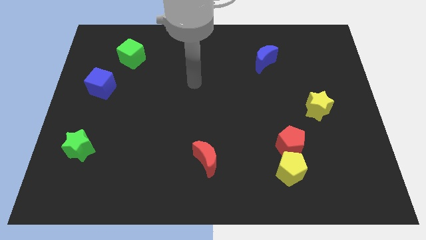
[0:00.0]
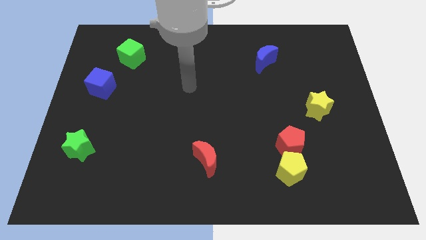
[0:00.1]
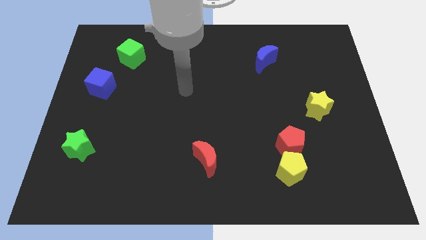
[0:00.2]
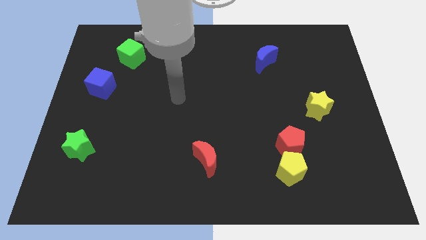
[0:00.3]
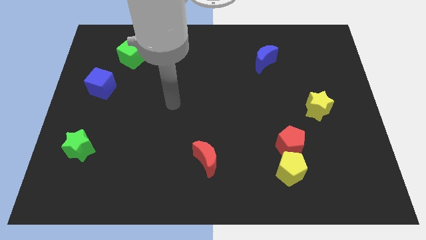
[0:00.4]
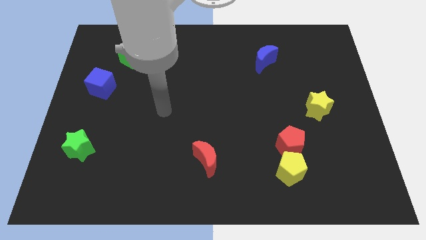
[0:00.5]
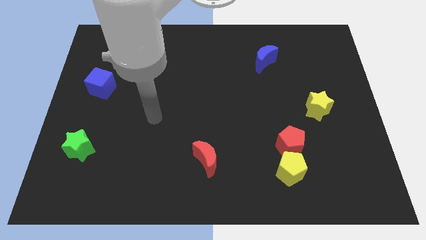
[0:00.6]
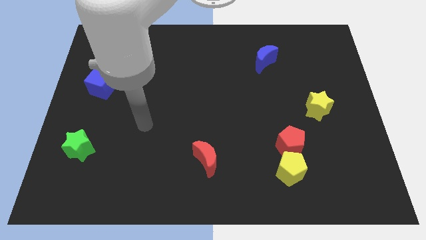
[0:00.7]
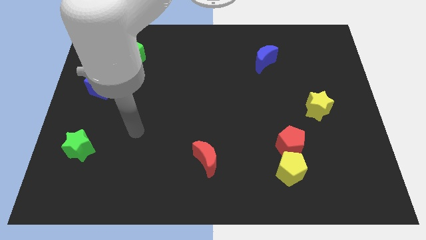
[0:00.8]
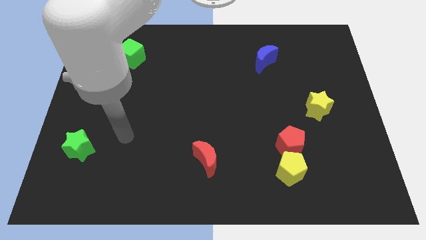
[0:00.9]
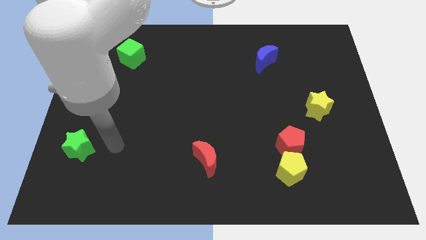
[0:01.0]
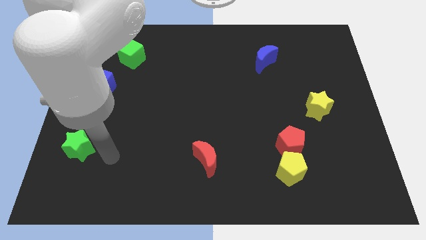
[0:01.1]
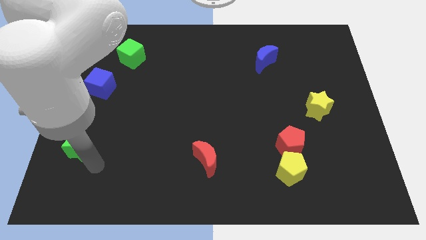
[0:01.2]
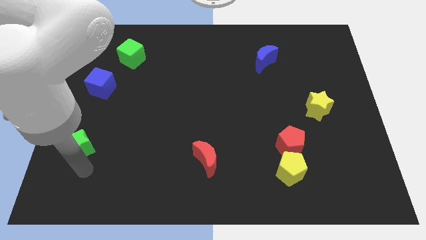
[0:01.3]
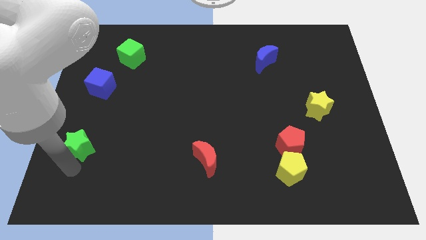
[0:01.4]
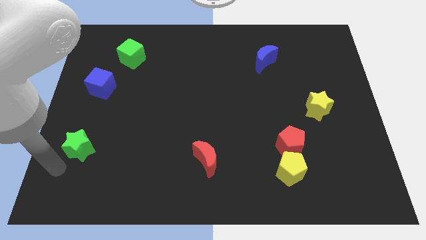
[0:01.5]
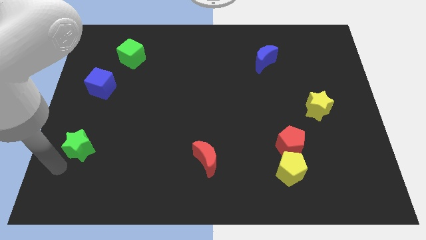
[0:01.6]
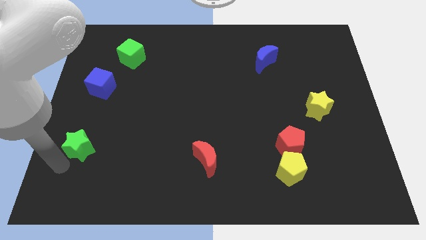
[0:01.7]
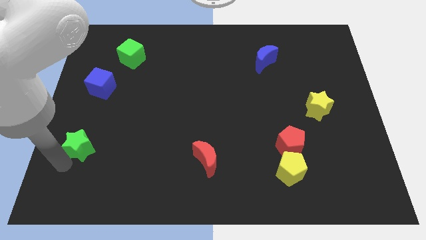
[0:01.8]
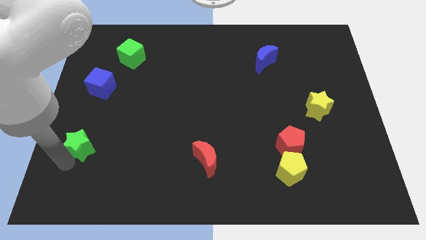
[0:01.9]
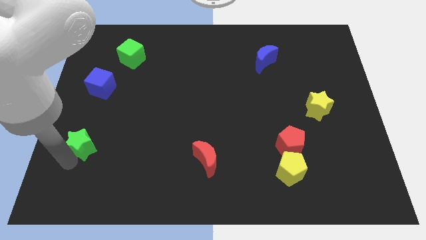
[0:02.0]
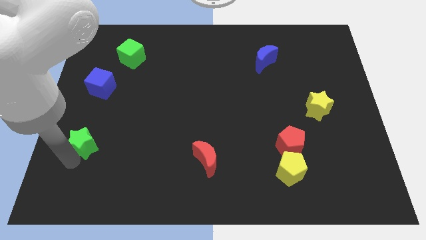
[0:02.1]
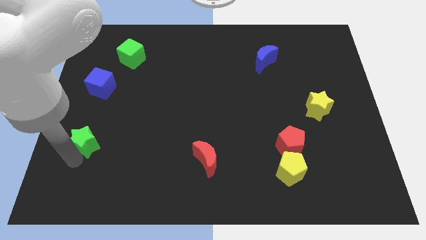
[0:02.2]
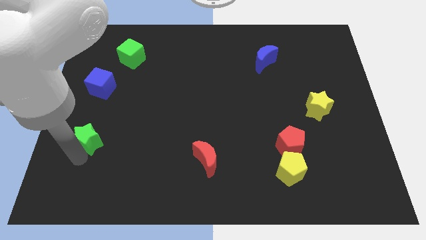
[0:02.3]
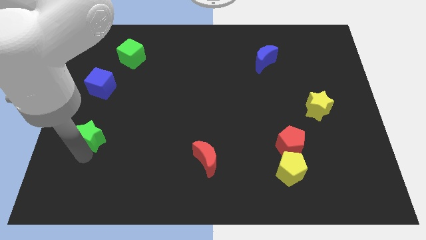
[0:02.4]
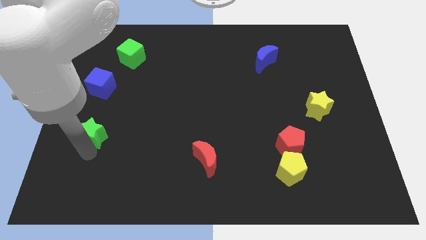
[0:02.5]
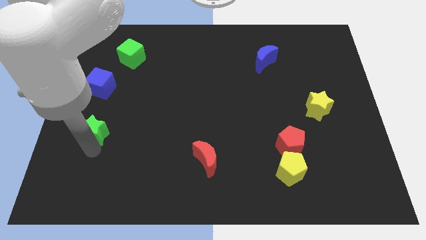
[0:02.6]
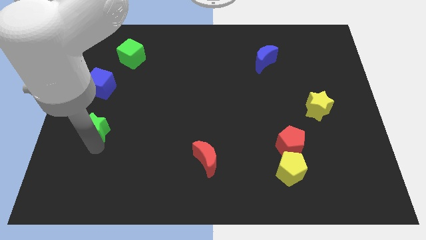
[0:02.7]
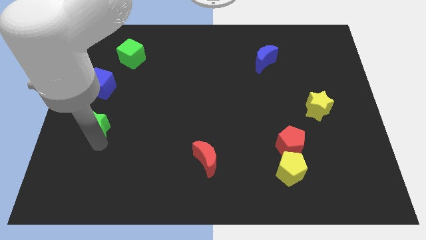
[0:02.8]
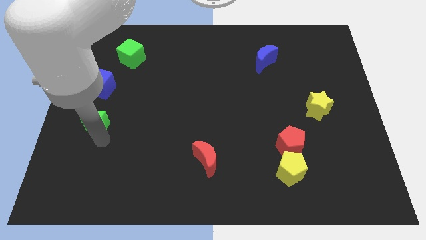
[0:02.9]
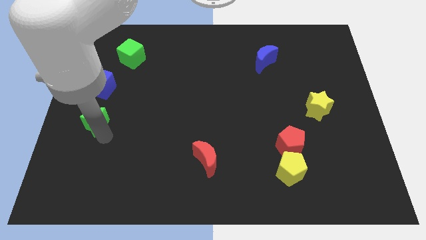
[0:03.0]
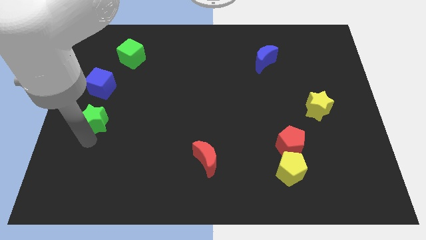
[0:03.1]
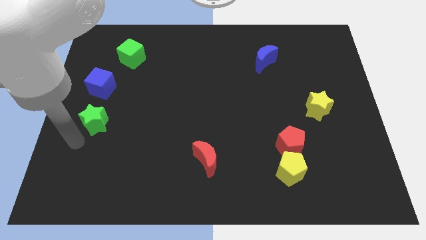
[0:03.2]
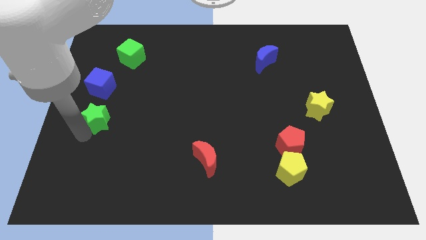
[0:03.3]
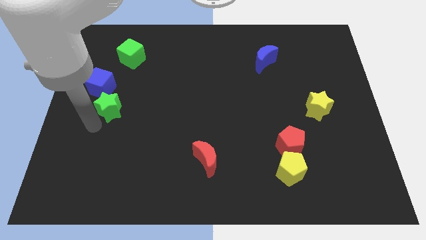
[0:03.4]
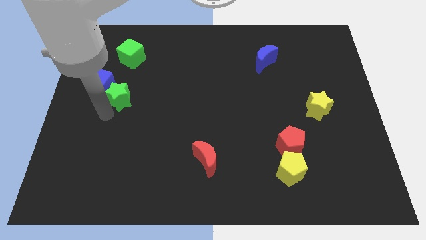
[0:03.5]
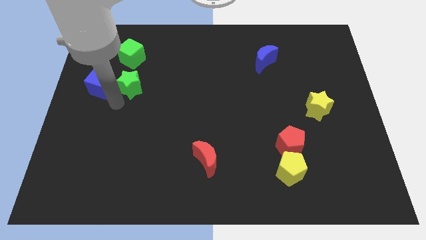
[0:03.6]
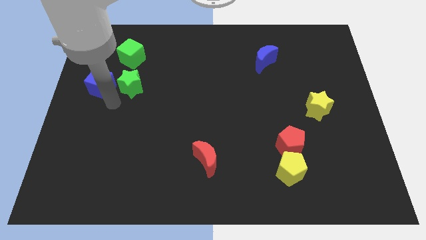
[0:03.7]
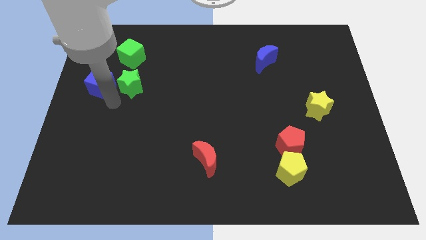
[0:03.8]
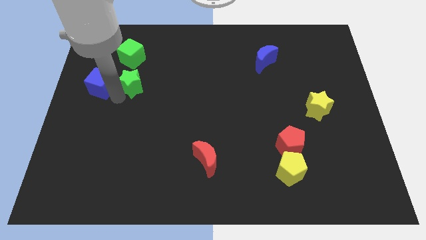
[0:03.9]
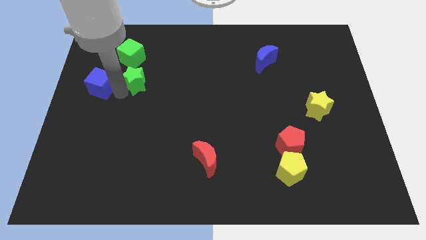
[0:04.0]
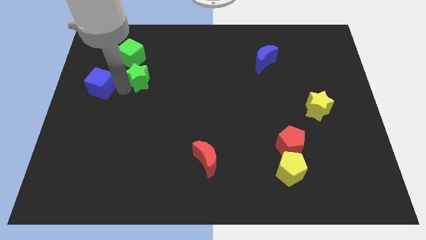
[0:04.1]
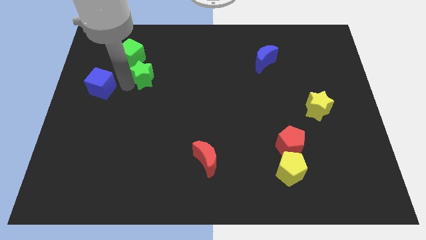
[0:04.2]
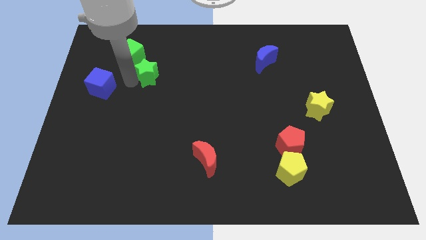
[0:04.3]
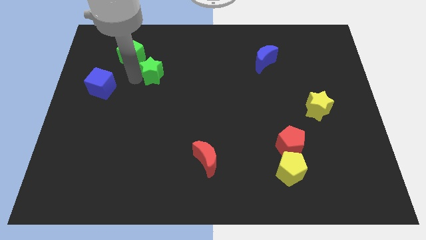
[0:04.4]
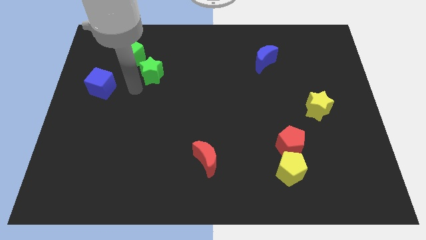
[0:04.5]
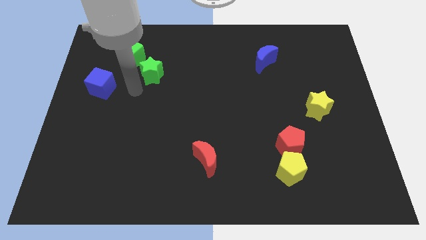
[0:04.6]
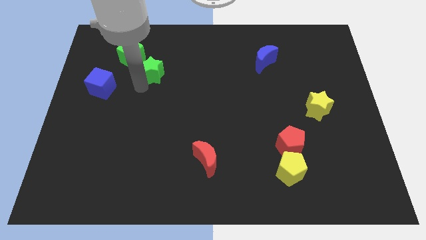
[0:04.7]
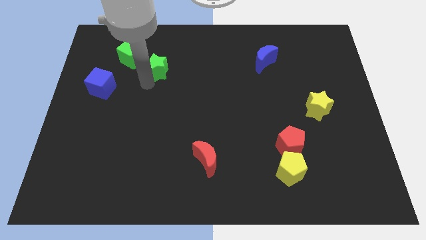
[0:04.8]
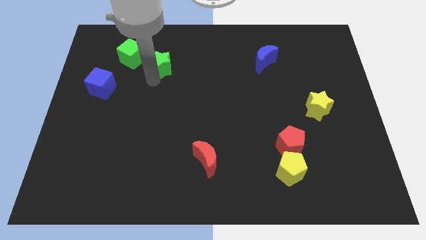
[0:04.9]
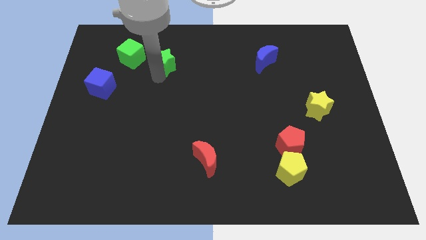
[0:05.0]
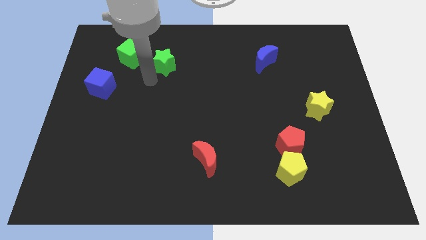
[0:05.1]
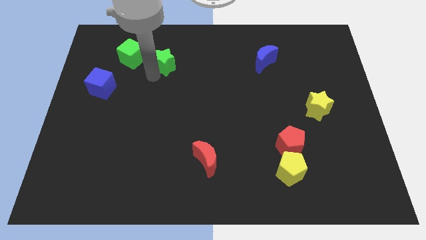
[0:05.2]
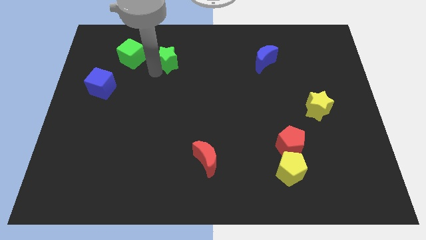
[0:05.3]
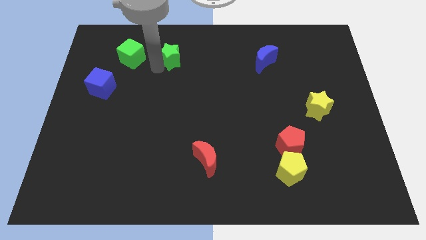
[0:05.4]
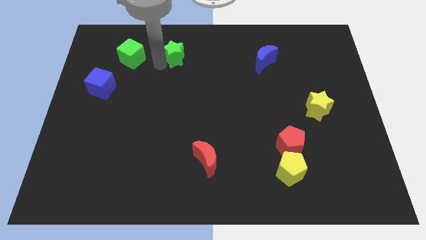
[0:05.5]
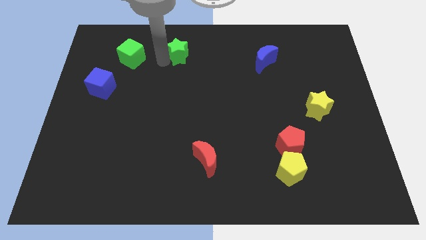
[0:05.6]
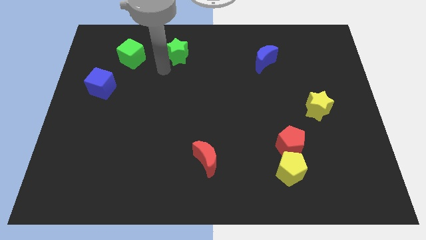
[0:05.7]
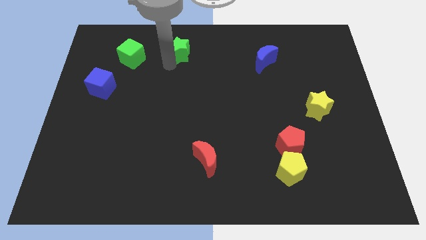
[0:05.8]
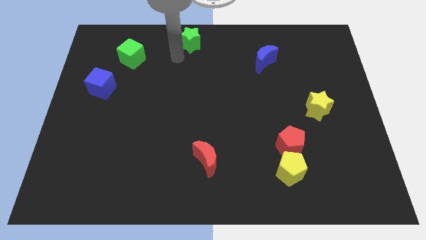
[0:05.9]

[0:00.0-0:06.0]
move the green star to the top side

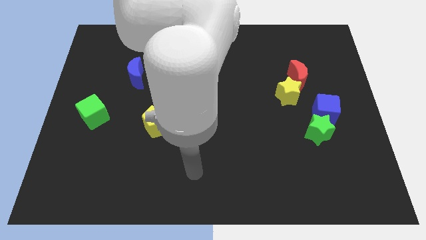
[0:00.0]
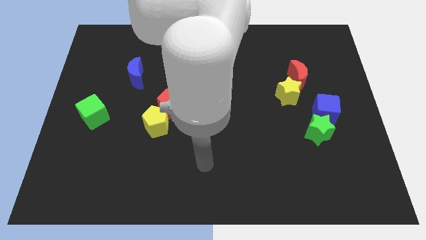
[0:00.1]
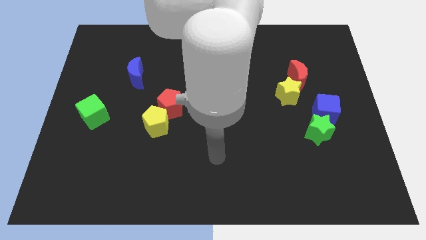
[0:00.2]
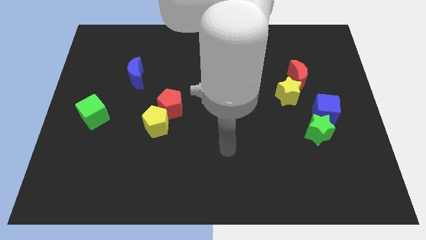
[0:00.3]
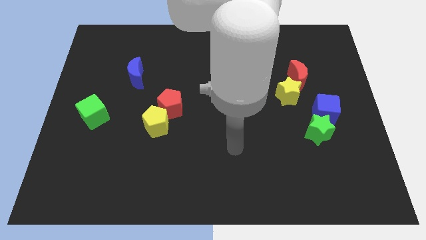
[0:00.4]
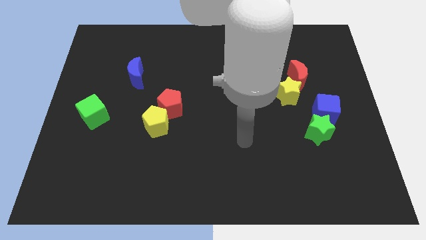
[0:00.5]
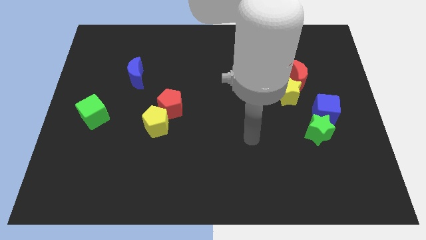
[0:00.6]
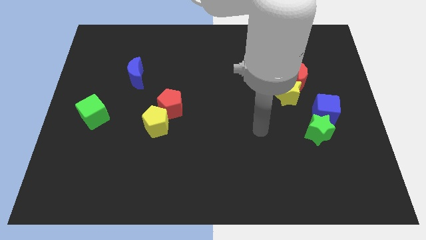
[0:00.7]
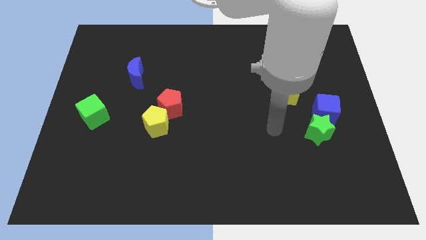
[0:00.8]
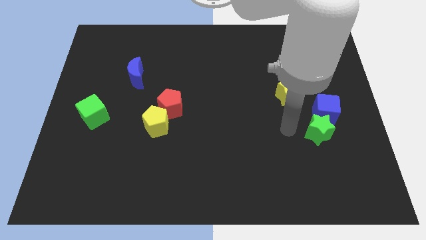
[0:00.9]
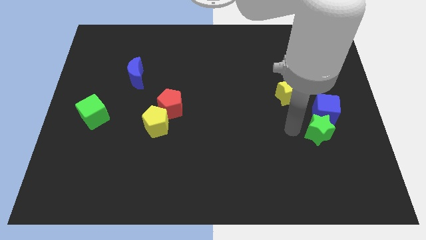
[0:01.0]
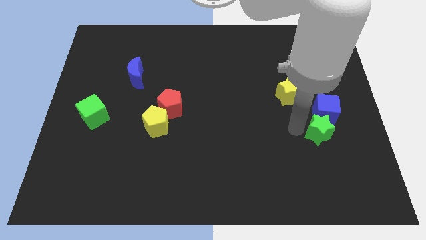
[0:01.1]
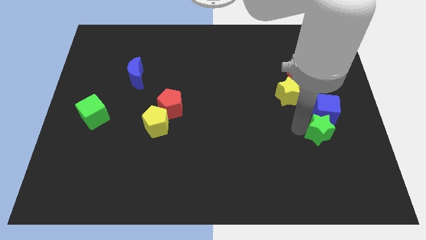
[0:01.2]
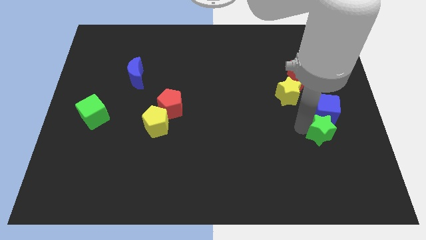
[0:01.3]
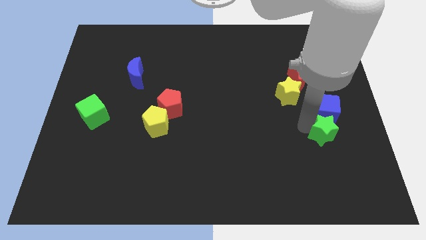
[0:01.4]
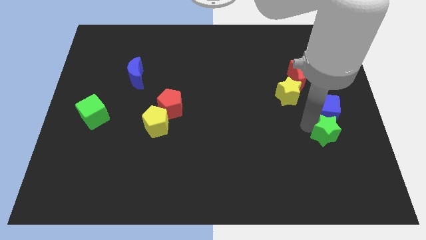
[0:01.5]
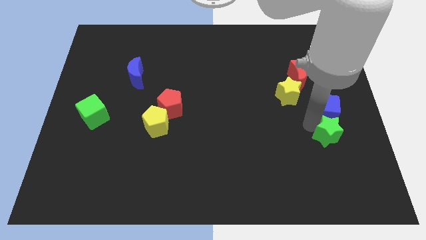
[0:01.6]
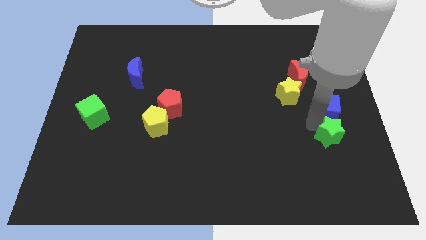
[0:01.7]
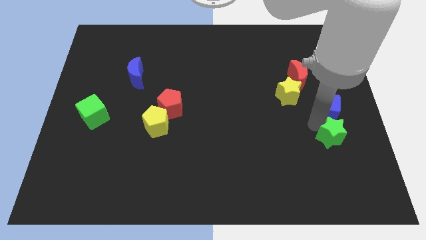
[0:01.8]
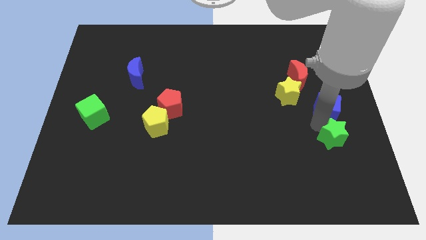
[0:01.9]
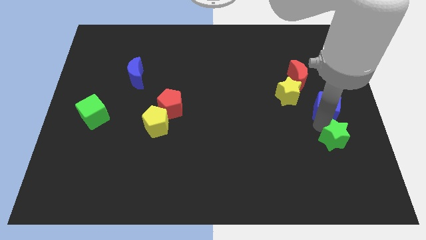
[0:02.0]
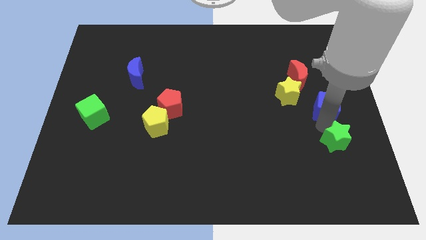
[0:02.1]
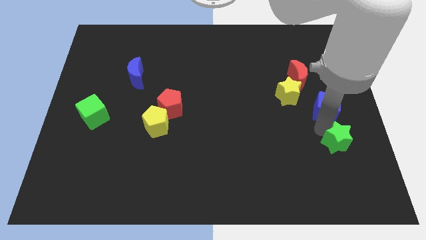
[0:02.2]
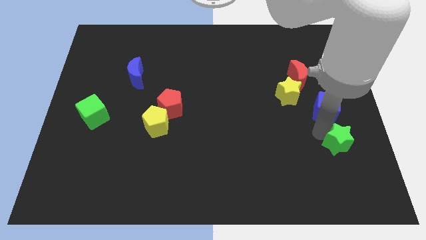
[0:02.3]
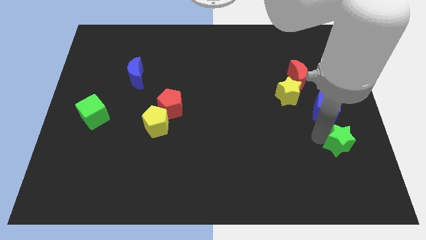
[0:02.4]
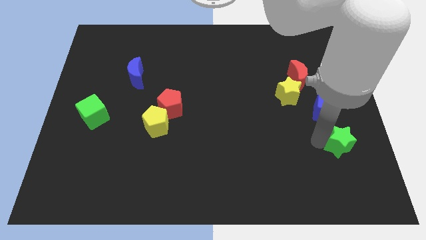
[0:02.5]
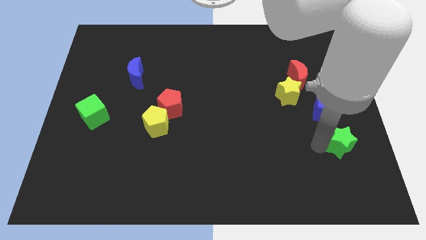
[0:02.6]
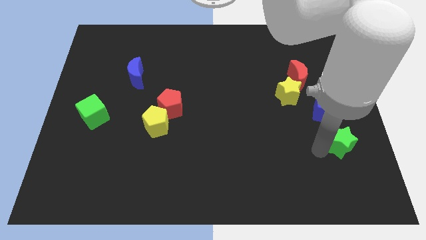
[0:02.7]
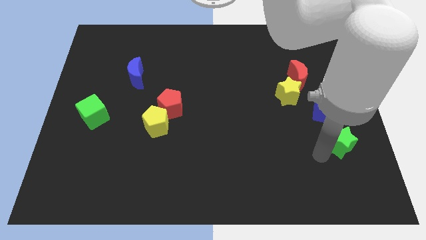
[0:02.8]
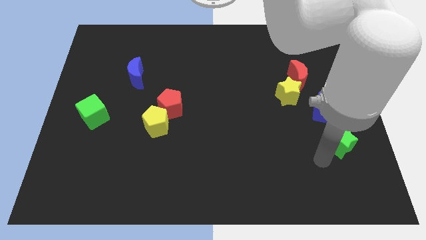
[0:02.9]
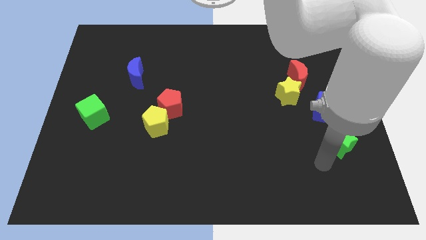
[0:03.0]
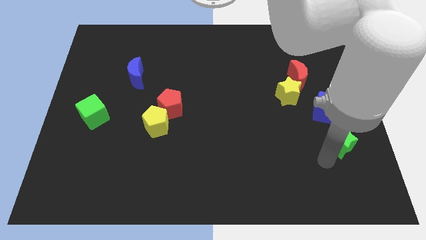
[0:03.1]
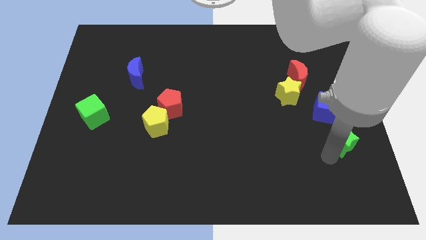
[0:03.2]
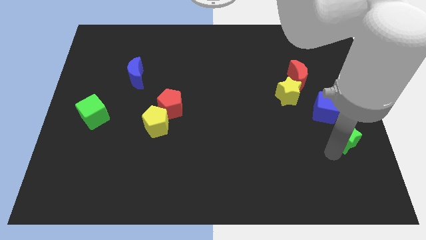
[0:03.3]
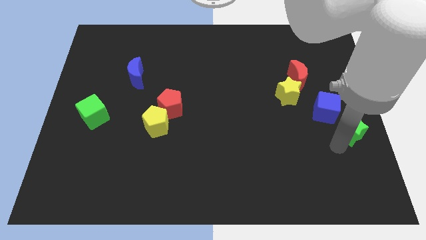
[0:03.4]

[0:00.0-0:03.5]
push the green star to the center right
